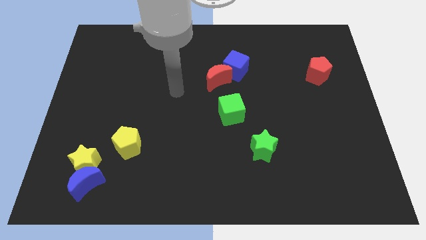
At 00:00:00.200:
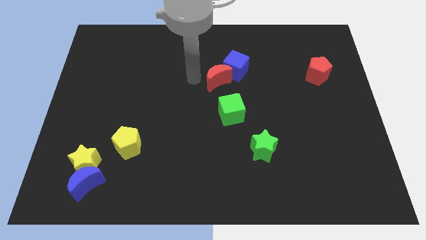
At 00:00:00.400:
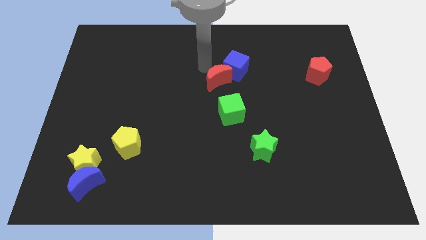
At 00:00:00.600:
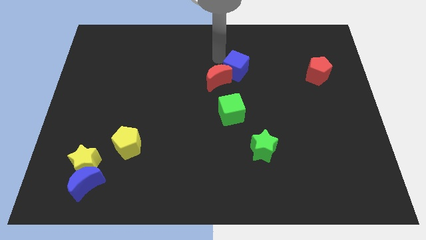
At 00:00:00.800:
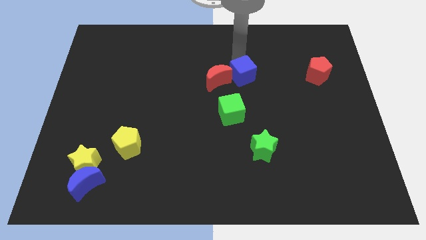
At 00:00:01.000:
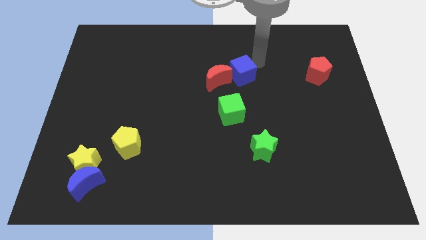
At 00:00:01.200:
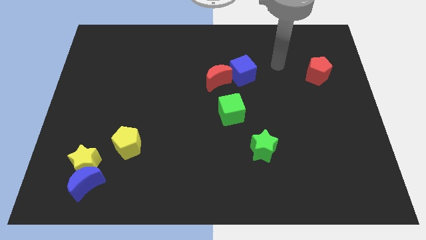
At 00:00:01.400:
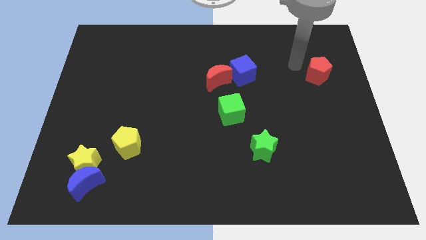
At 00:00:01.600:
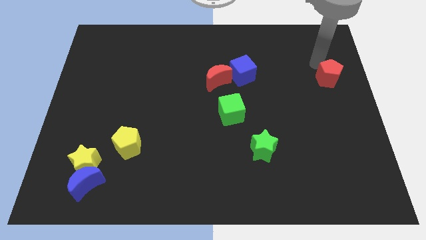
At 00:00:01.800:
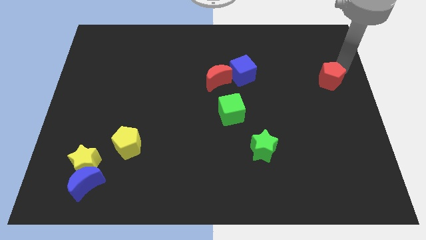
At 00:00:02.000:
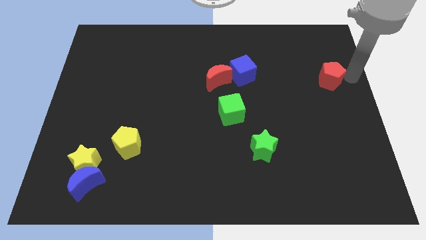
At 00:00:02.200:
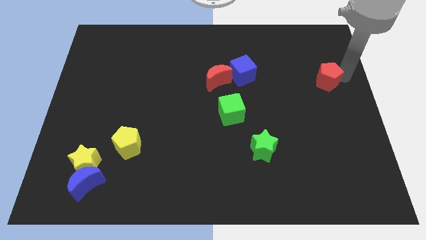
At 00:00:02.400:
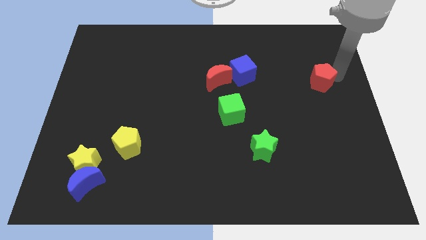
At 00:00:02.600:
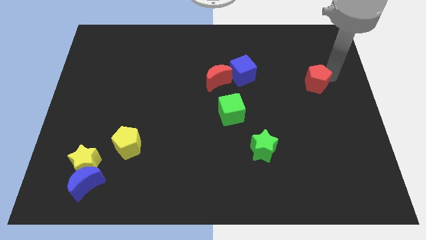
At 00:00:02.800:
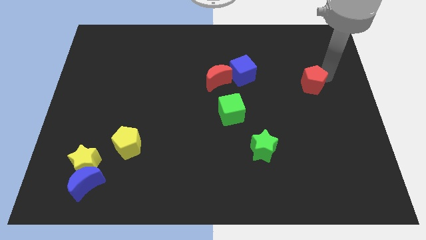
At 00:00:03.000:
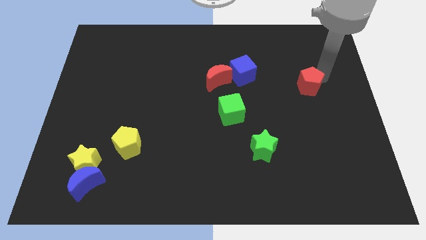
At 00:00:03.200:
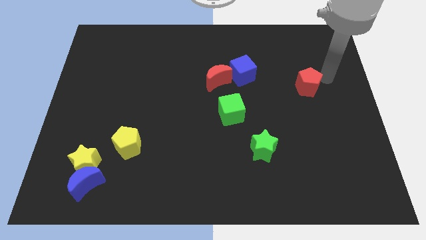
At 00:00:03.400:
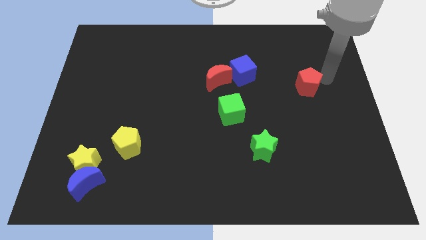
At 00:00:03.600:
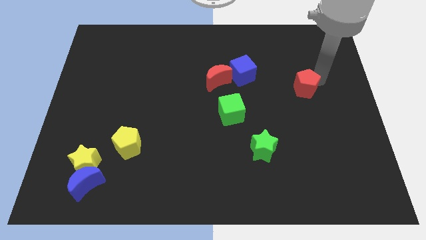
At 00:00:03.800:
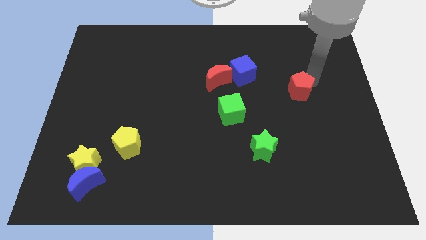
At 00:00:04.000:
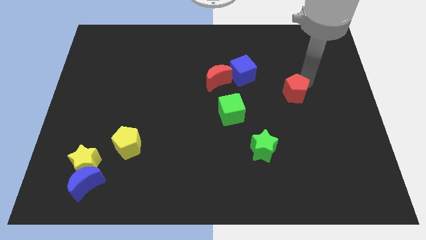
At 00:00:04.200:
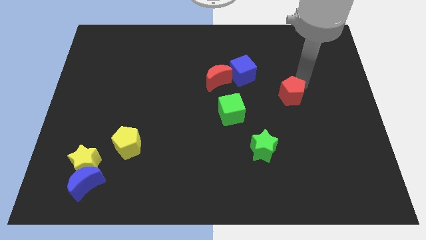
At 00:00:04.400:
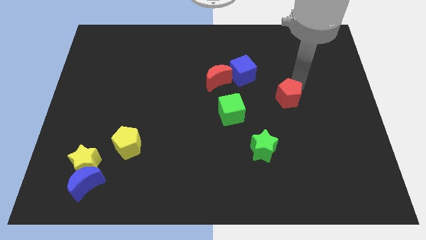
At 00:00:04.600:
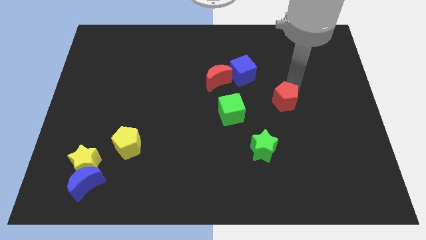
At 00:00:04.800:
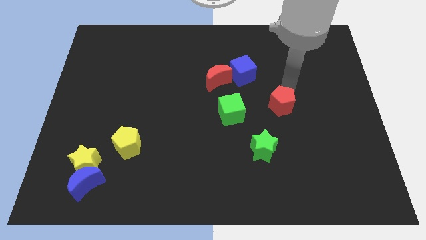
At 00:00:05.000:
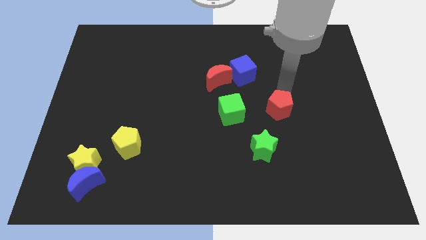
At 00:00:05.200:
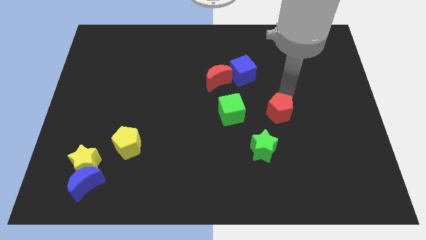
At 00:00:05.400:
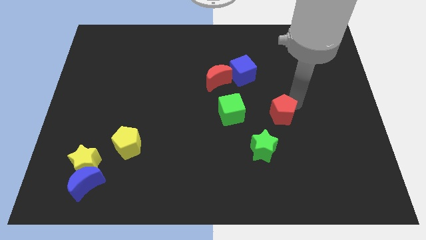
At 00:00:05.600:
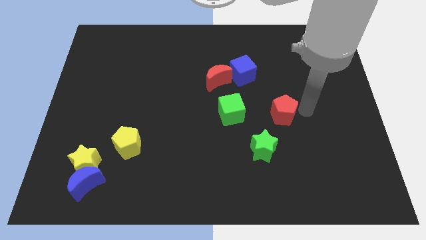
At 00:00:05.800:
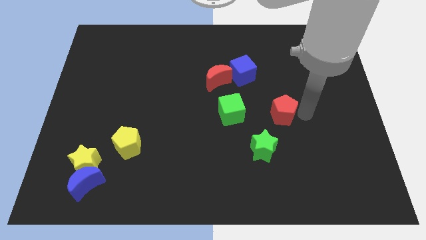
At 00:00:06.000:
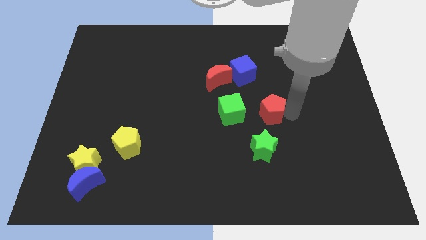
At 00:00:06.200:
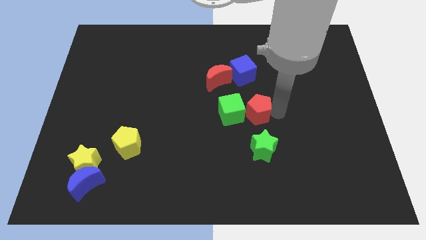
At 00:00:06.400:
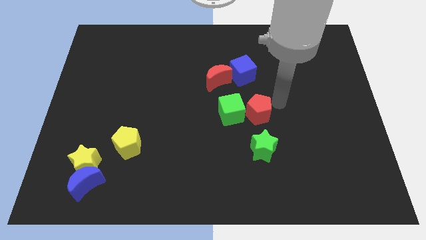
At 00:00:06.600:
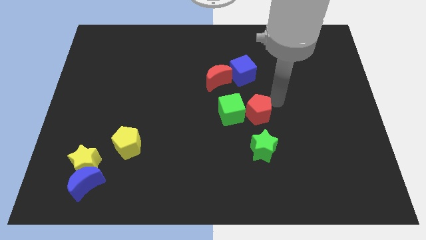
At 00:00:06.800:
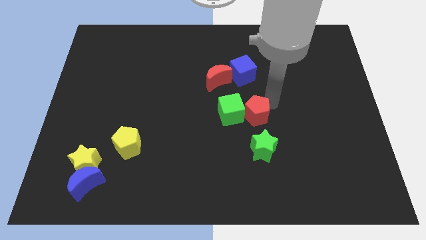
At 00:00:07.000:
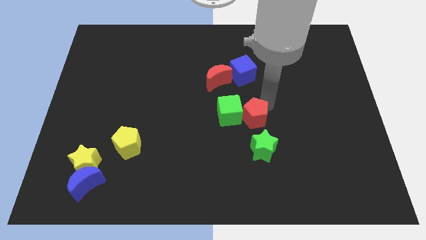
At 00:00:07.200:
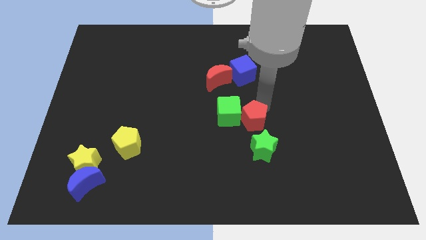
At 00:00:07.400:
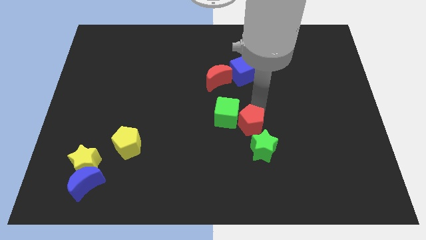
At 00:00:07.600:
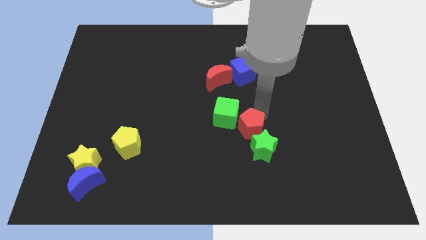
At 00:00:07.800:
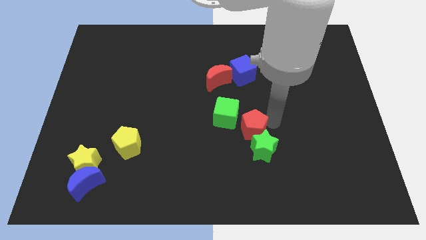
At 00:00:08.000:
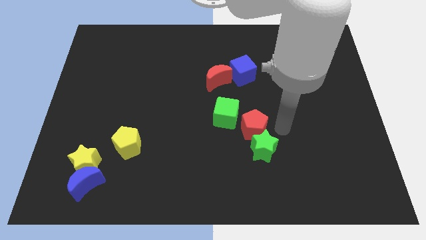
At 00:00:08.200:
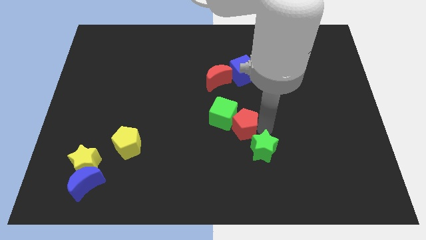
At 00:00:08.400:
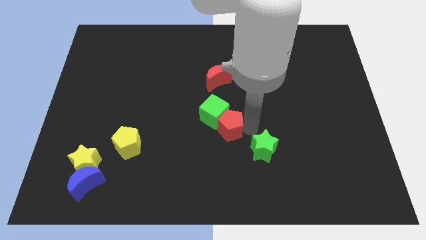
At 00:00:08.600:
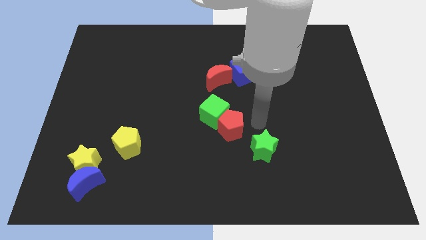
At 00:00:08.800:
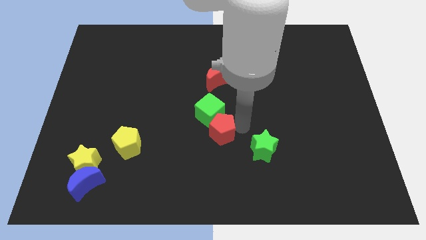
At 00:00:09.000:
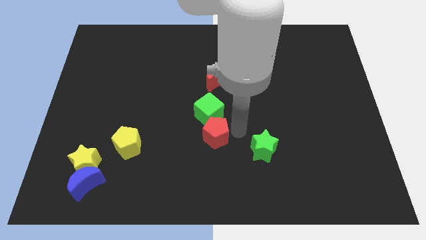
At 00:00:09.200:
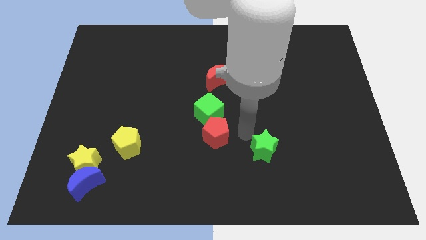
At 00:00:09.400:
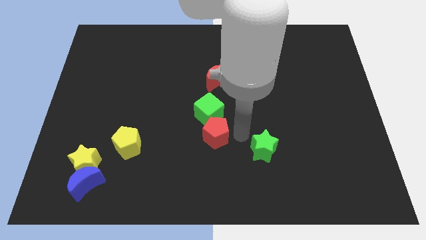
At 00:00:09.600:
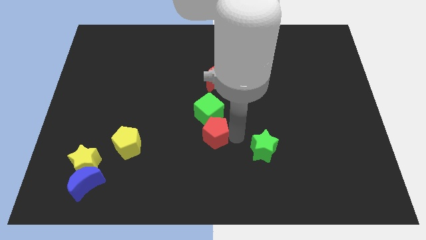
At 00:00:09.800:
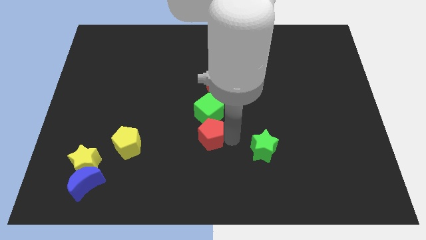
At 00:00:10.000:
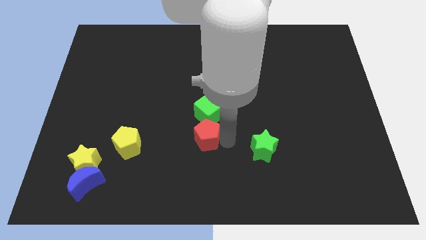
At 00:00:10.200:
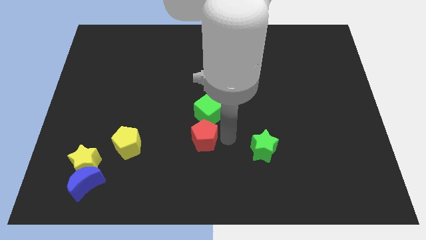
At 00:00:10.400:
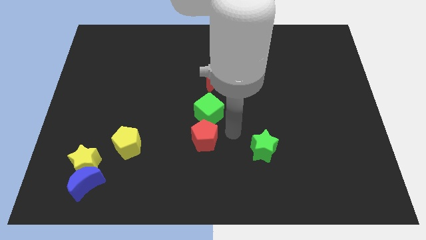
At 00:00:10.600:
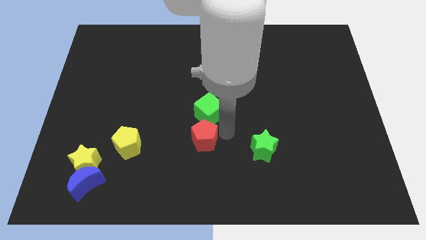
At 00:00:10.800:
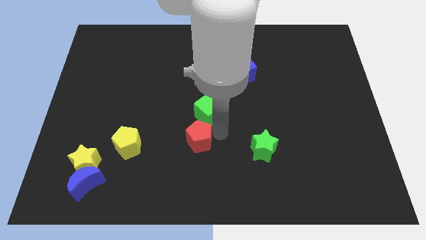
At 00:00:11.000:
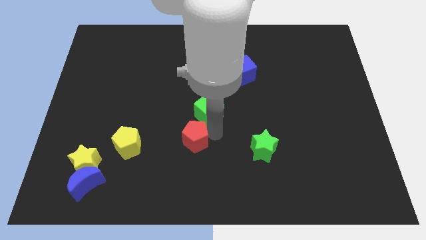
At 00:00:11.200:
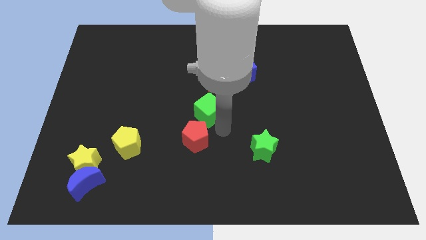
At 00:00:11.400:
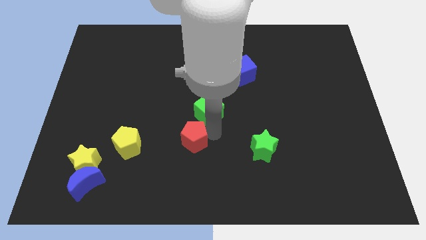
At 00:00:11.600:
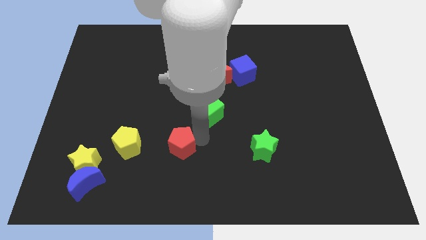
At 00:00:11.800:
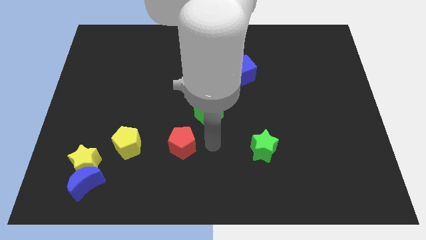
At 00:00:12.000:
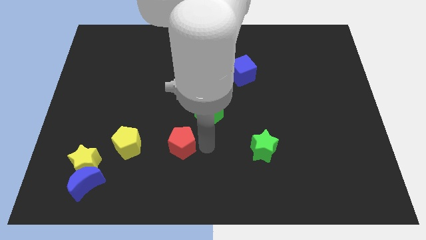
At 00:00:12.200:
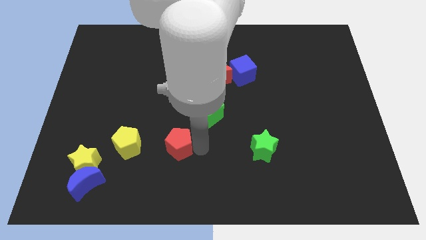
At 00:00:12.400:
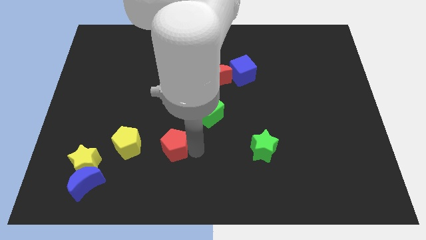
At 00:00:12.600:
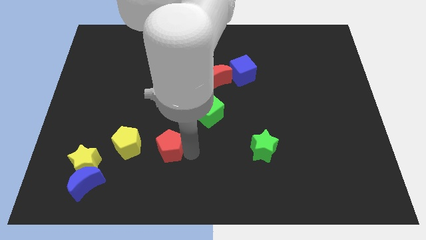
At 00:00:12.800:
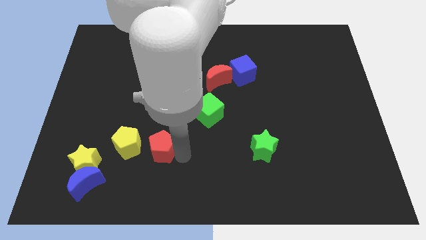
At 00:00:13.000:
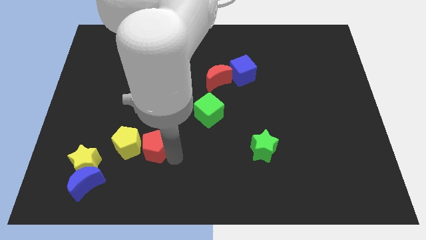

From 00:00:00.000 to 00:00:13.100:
put the red pentagon close to the yellow pentagon
